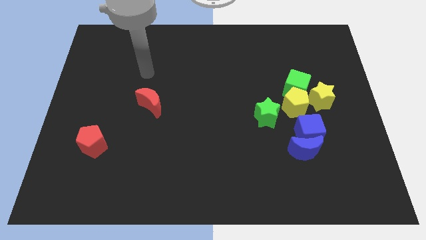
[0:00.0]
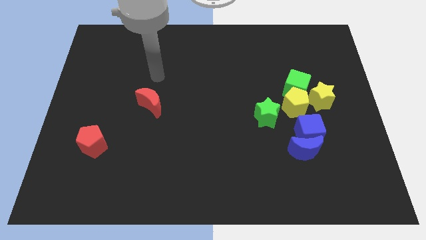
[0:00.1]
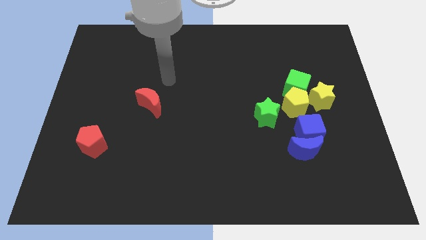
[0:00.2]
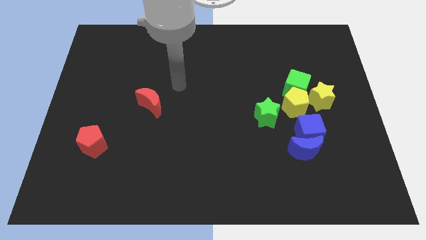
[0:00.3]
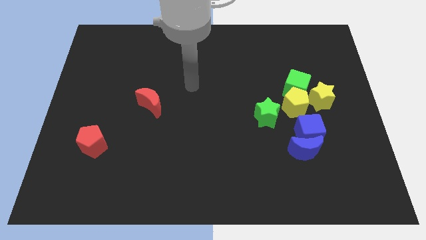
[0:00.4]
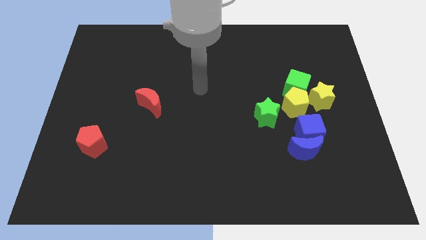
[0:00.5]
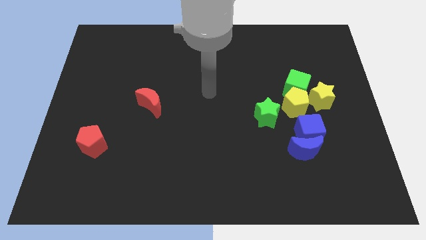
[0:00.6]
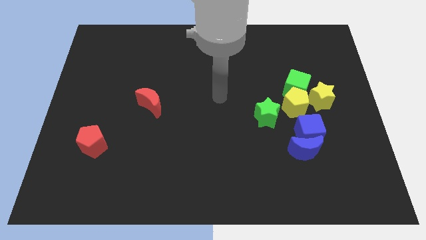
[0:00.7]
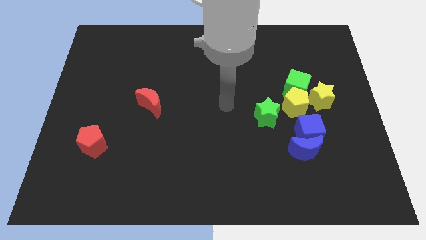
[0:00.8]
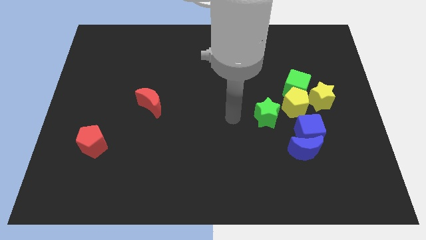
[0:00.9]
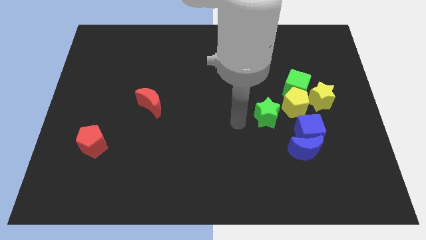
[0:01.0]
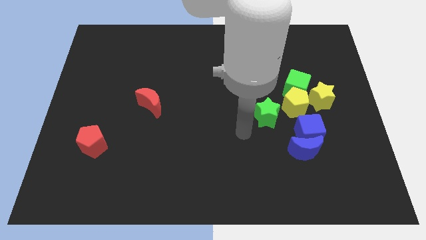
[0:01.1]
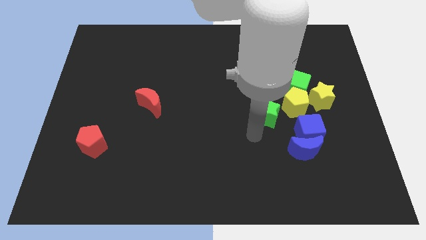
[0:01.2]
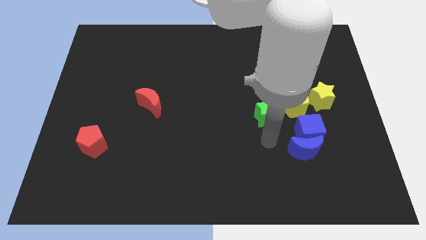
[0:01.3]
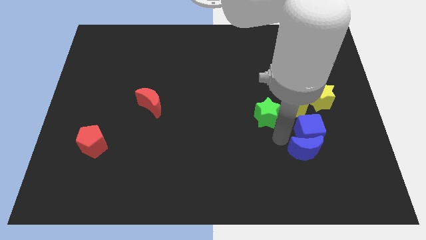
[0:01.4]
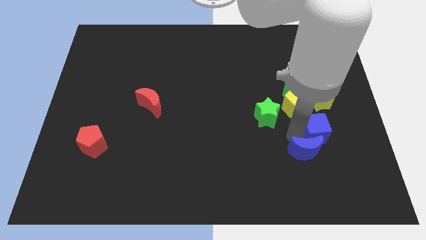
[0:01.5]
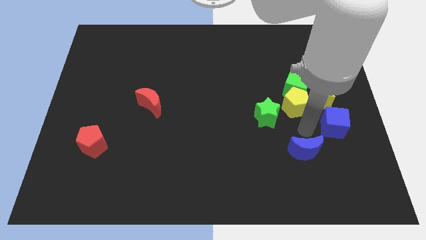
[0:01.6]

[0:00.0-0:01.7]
move the blue moon away from the blue cube

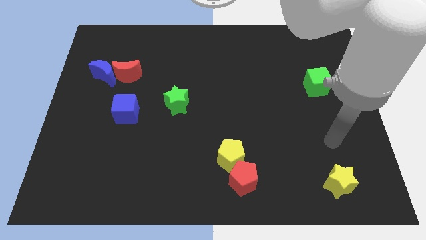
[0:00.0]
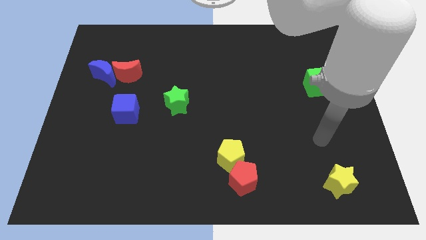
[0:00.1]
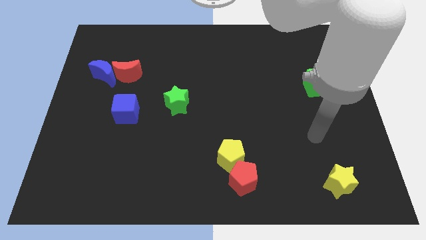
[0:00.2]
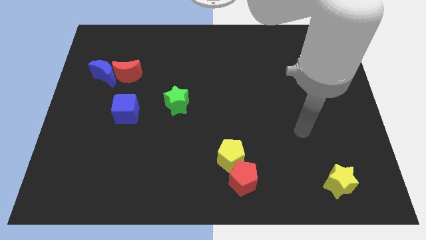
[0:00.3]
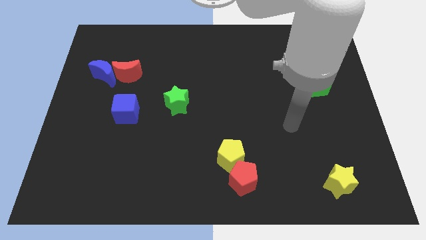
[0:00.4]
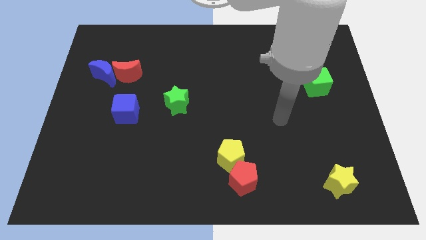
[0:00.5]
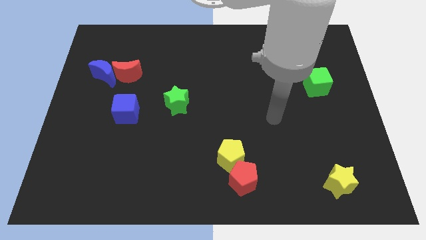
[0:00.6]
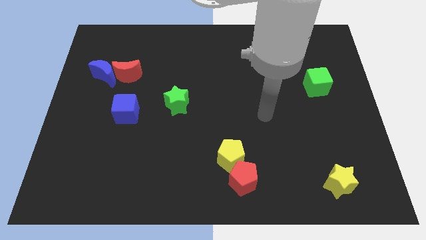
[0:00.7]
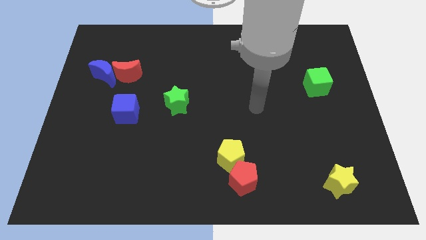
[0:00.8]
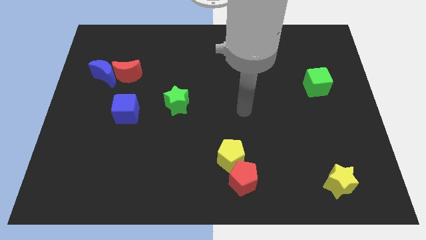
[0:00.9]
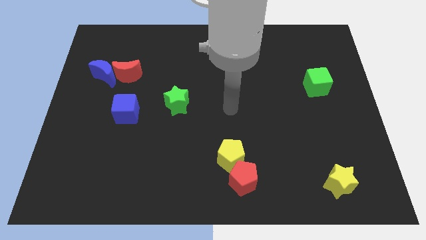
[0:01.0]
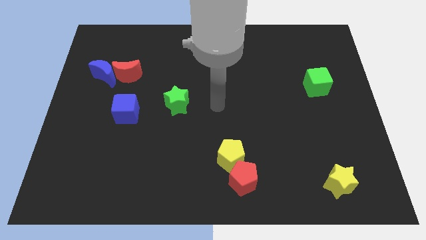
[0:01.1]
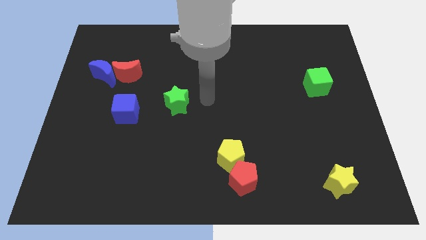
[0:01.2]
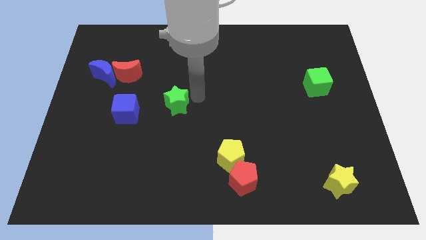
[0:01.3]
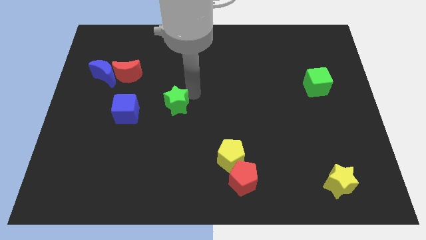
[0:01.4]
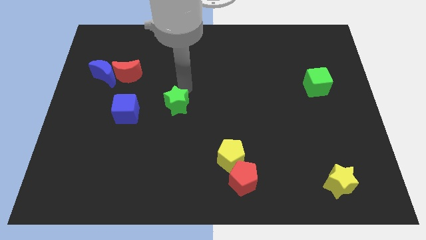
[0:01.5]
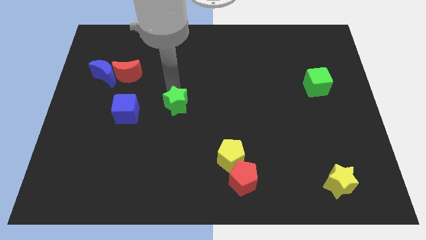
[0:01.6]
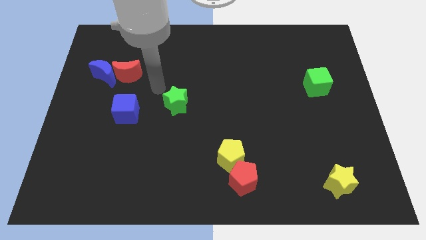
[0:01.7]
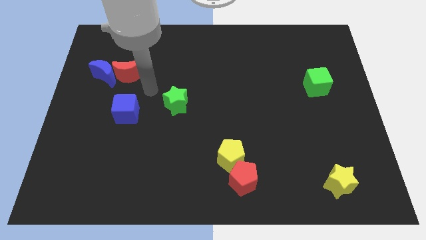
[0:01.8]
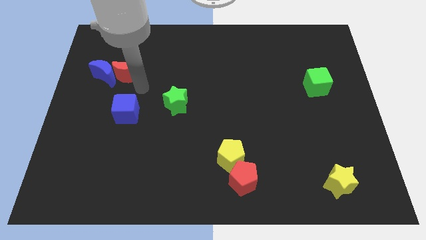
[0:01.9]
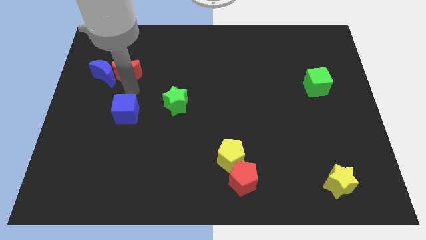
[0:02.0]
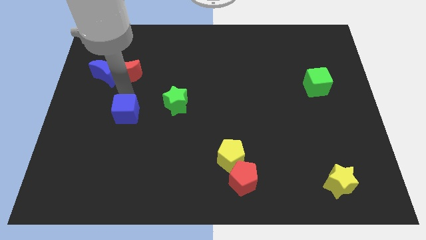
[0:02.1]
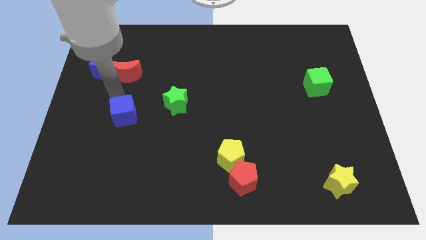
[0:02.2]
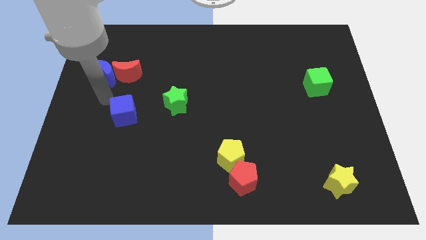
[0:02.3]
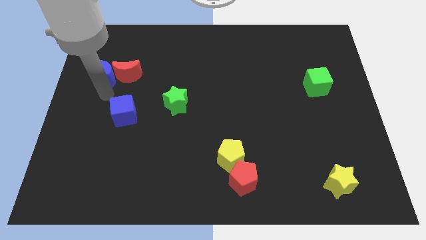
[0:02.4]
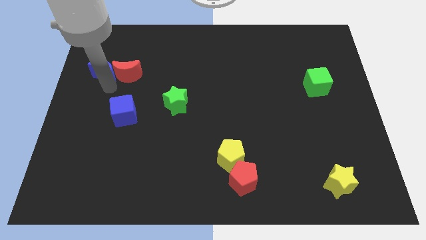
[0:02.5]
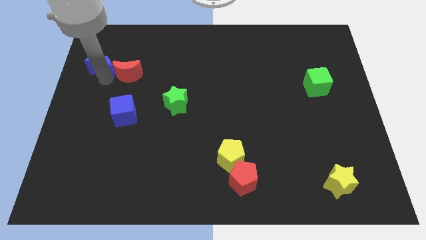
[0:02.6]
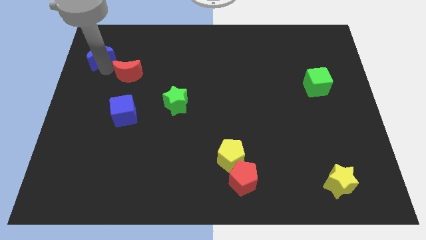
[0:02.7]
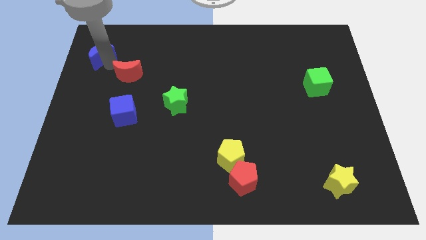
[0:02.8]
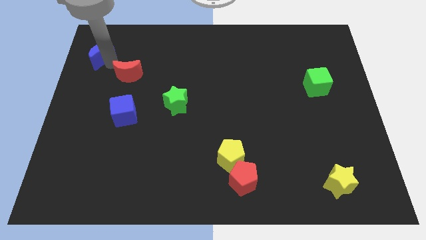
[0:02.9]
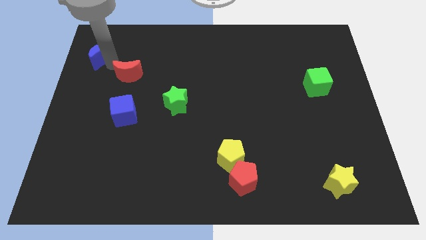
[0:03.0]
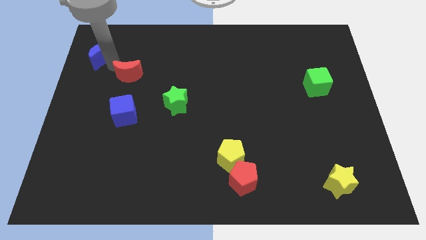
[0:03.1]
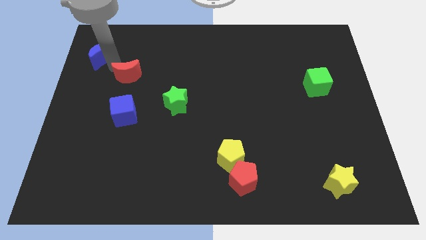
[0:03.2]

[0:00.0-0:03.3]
pull the red moon apart from the blue moon

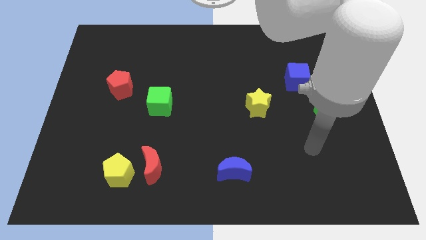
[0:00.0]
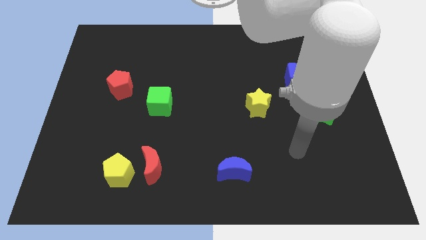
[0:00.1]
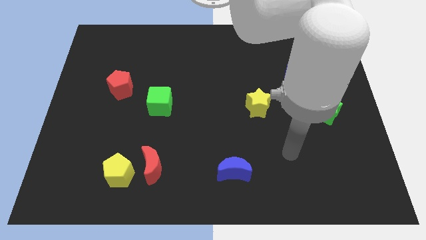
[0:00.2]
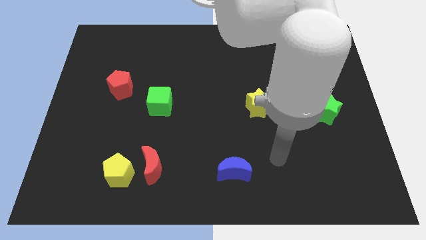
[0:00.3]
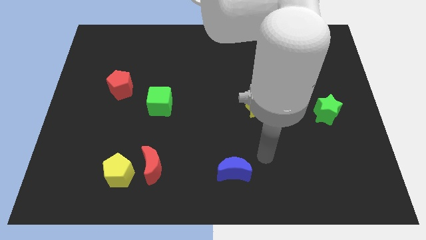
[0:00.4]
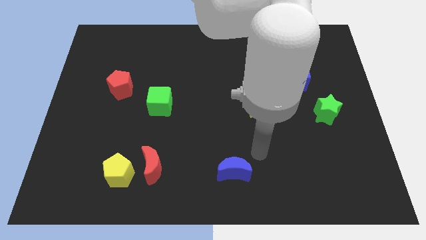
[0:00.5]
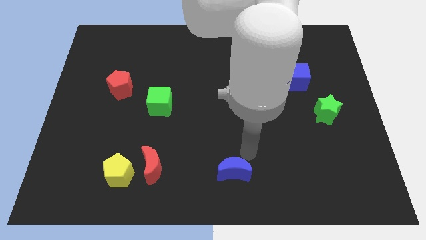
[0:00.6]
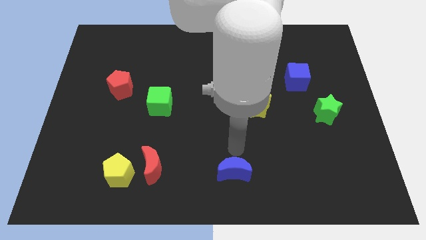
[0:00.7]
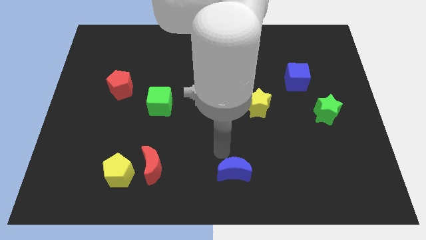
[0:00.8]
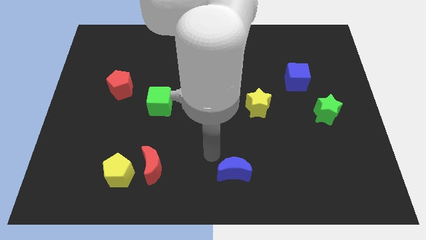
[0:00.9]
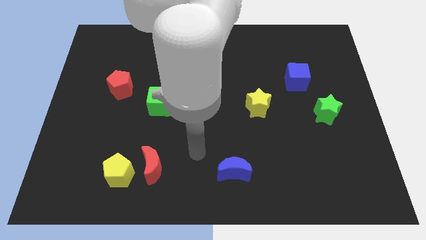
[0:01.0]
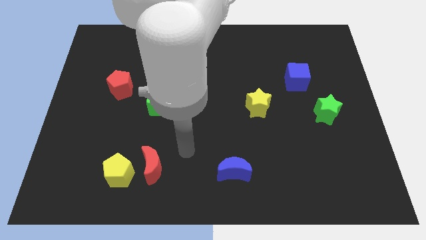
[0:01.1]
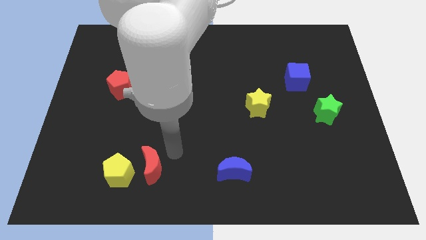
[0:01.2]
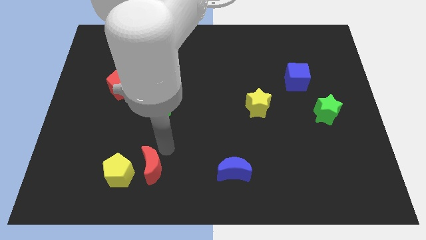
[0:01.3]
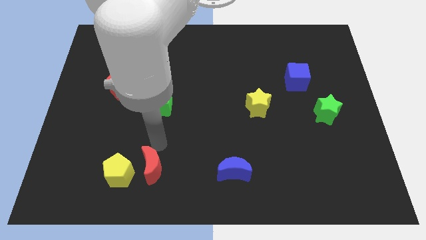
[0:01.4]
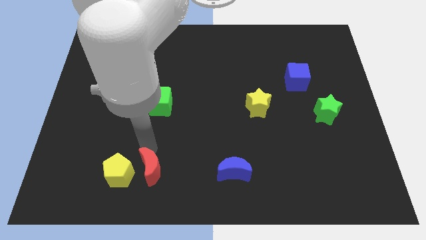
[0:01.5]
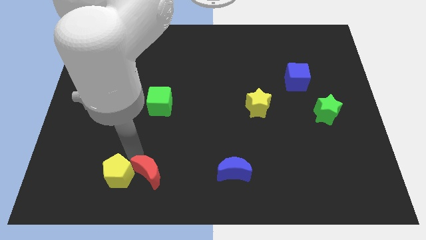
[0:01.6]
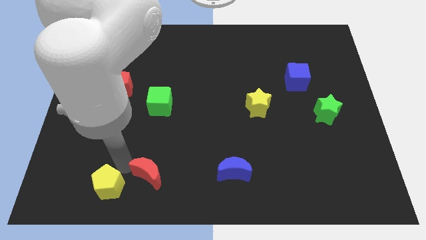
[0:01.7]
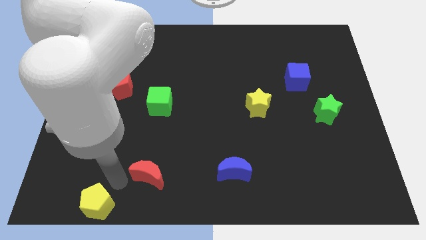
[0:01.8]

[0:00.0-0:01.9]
pull the red moon apart from the yellow pentagon

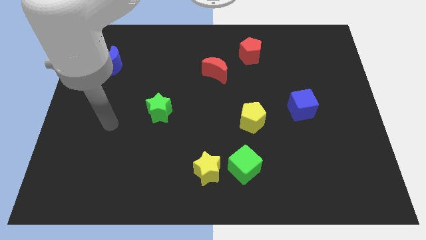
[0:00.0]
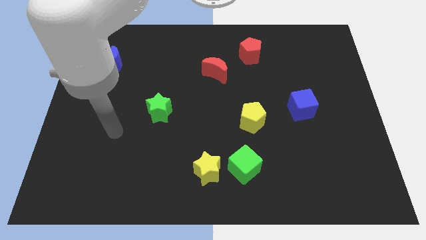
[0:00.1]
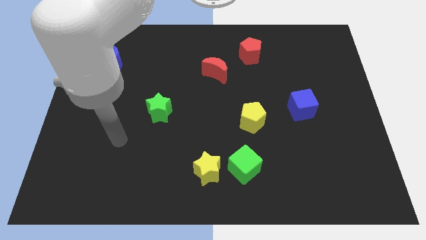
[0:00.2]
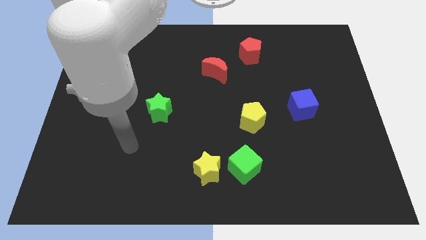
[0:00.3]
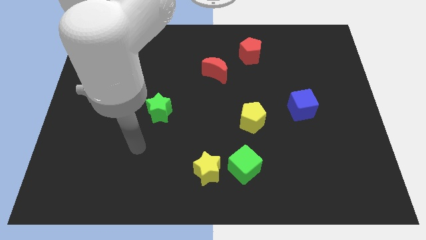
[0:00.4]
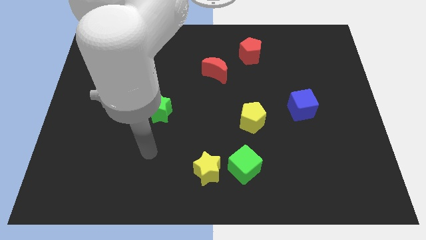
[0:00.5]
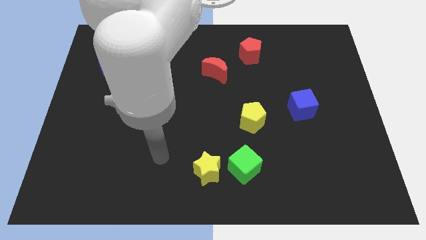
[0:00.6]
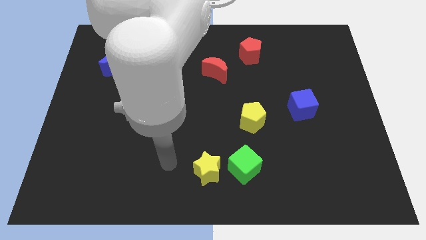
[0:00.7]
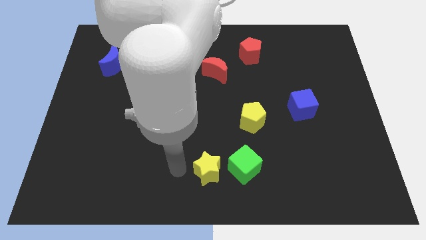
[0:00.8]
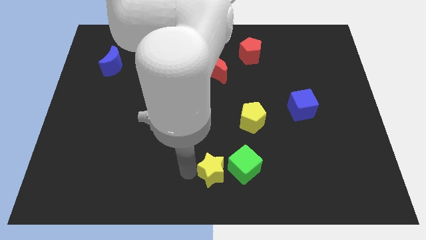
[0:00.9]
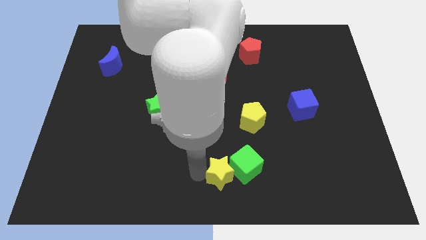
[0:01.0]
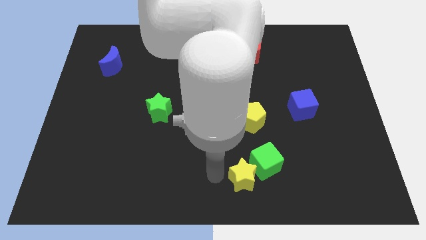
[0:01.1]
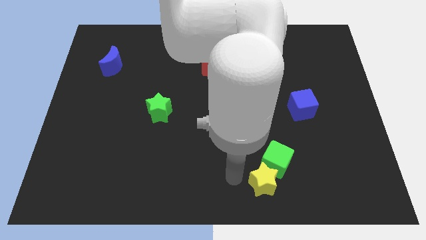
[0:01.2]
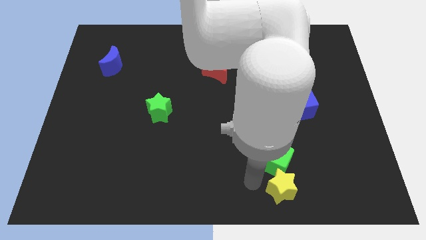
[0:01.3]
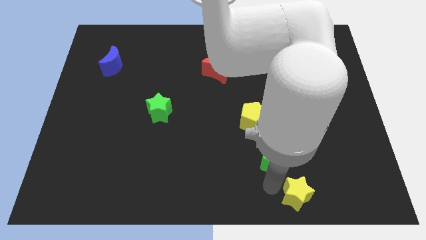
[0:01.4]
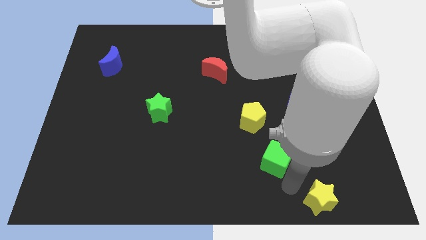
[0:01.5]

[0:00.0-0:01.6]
separate the green cube from the yellow star

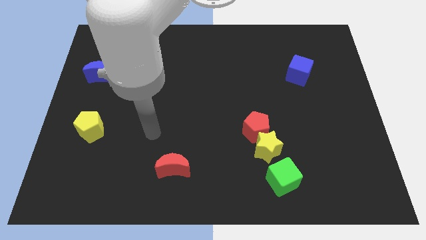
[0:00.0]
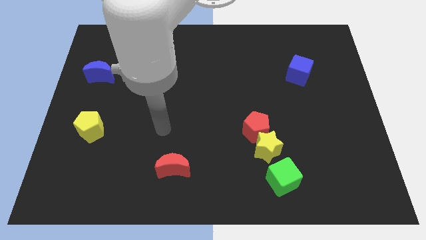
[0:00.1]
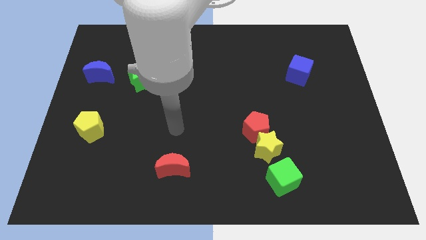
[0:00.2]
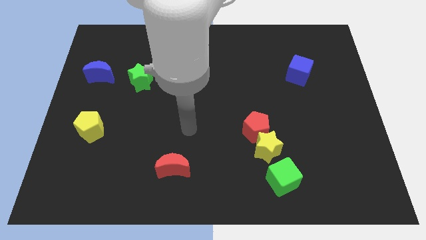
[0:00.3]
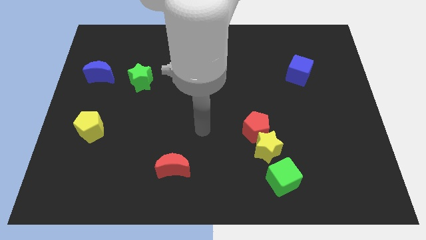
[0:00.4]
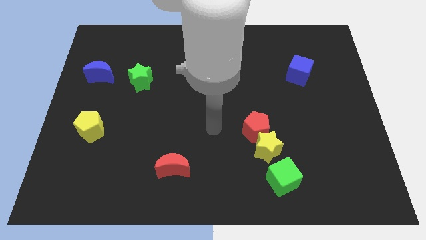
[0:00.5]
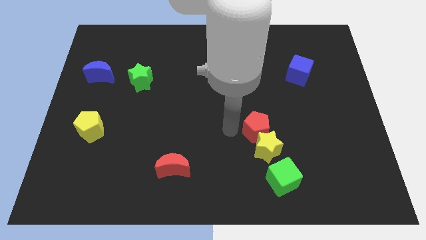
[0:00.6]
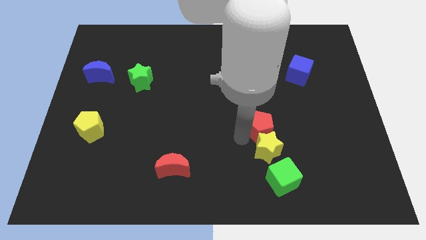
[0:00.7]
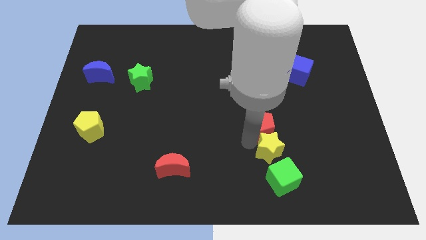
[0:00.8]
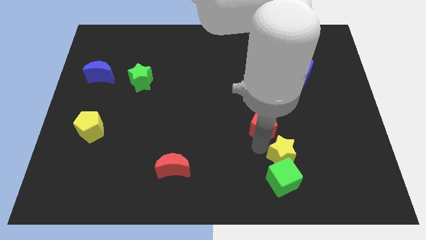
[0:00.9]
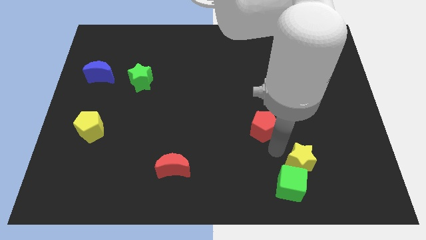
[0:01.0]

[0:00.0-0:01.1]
move the red pentagon away from the yellow star
